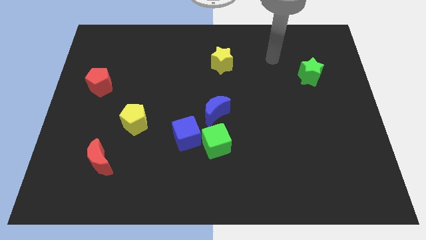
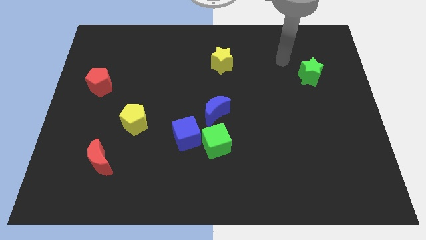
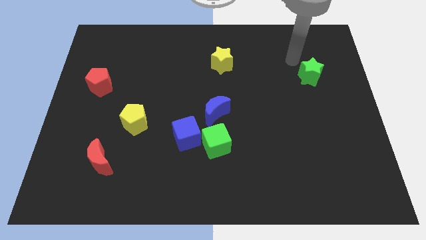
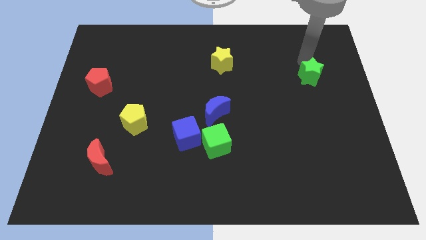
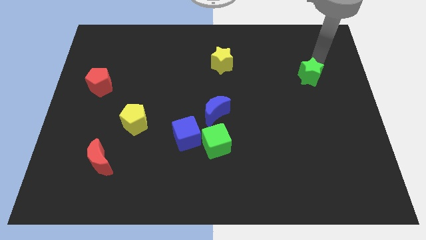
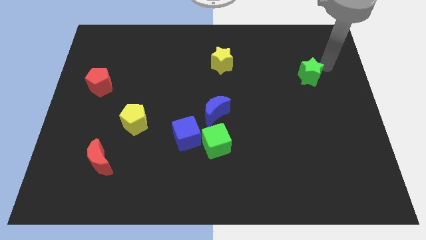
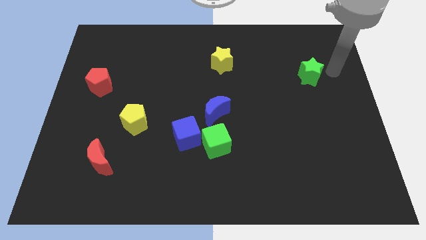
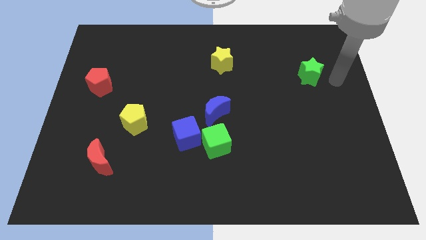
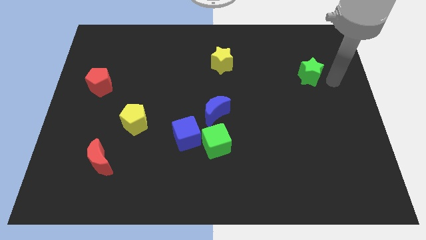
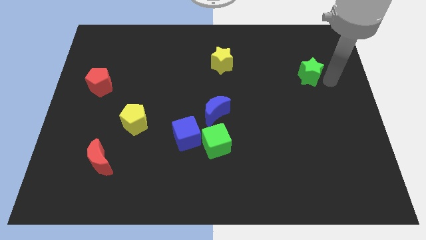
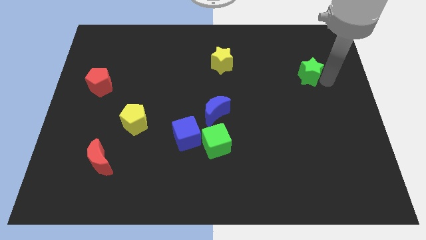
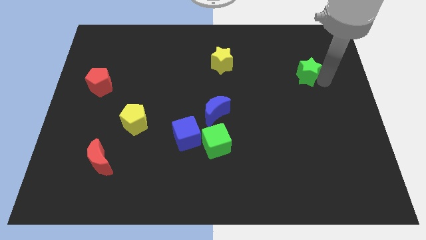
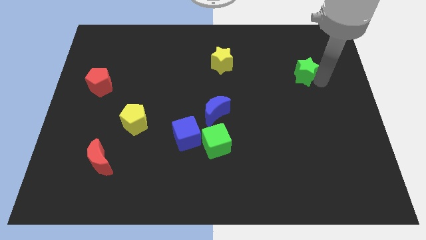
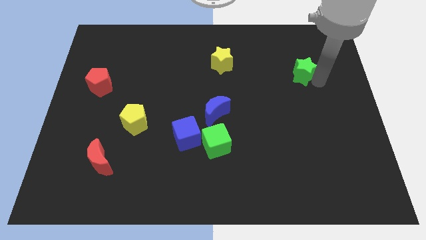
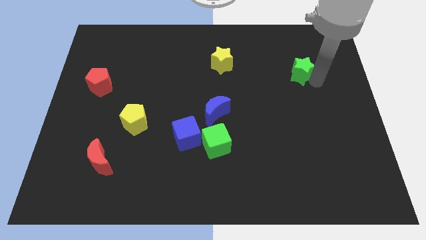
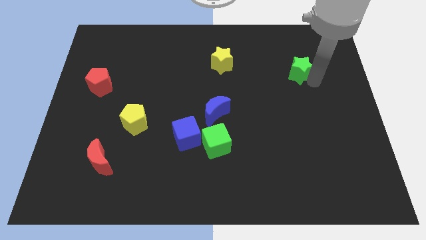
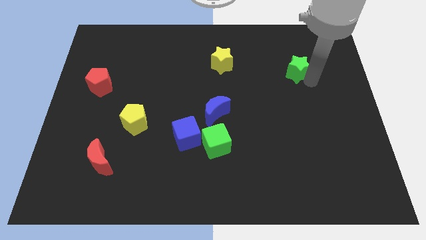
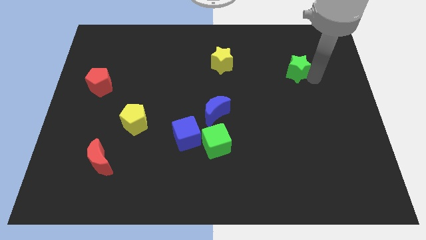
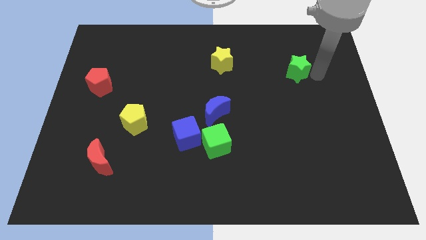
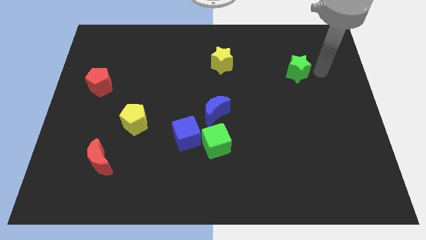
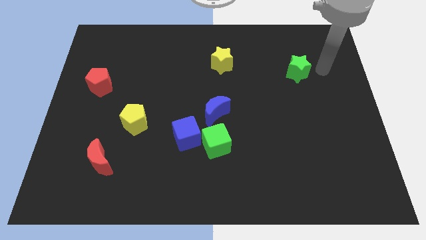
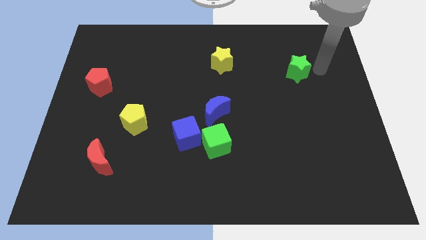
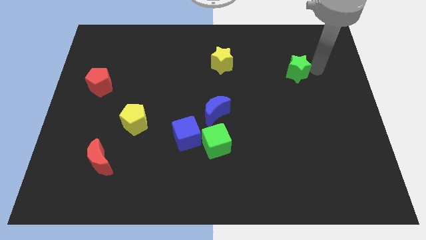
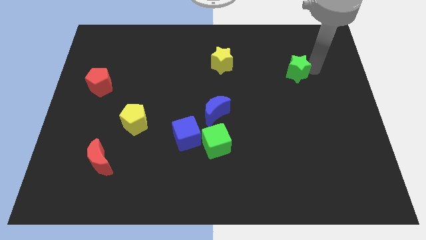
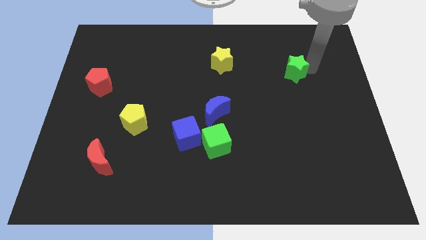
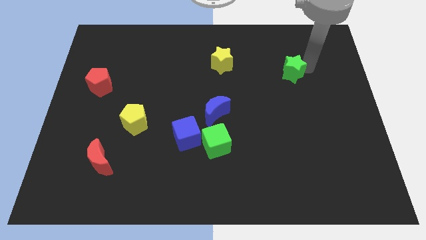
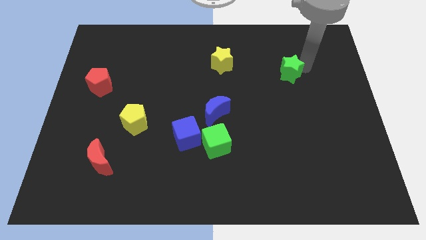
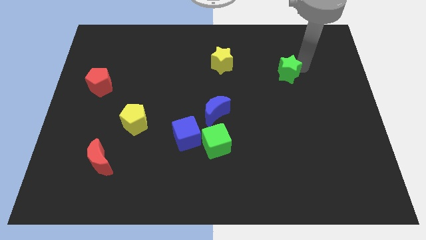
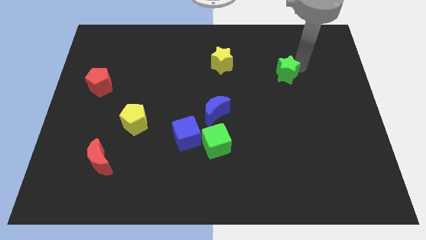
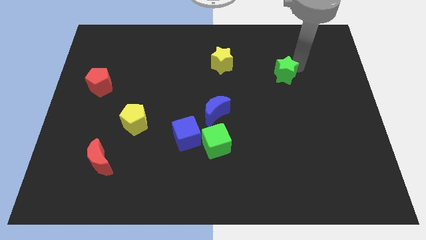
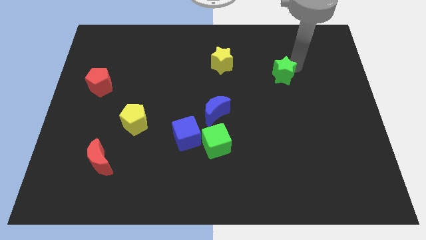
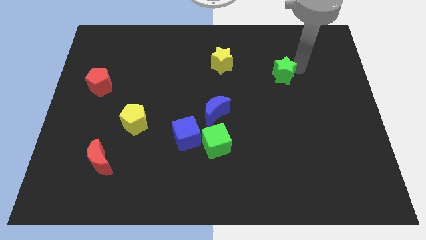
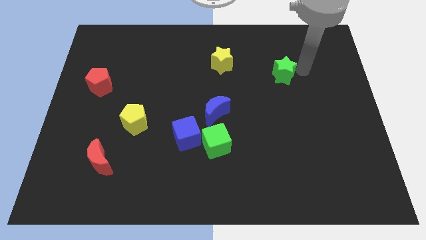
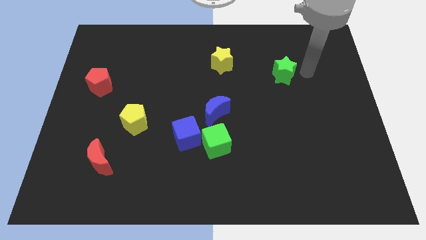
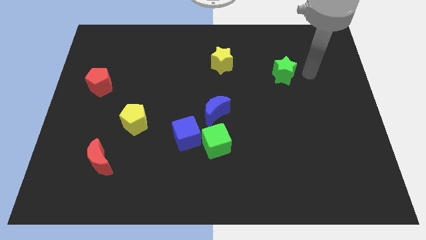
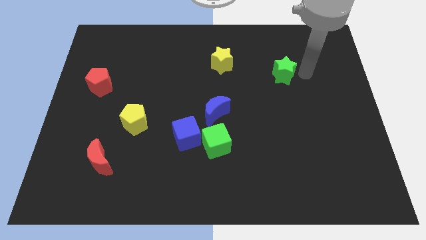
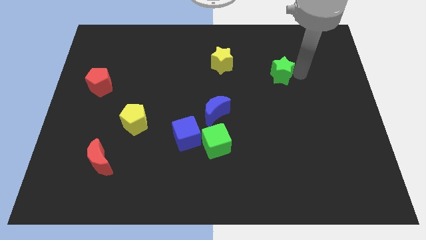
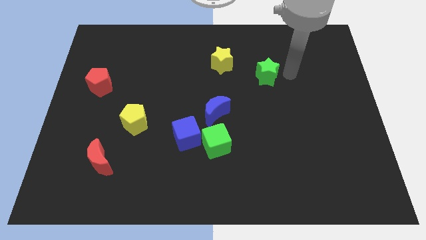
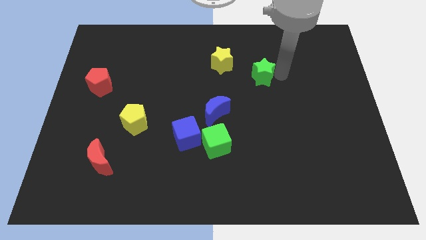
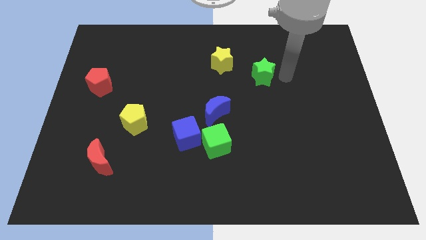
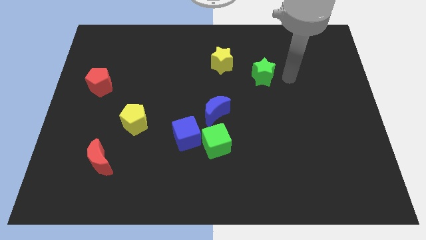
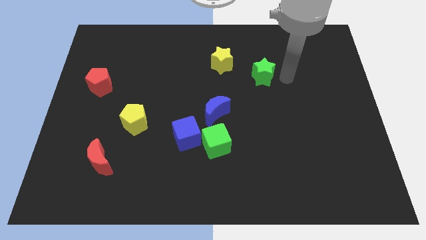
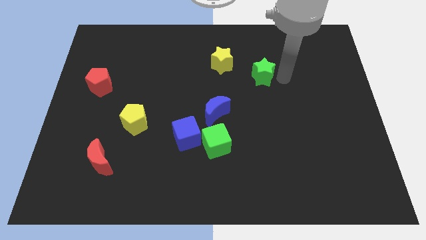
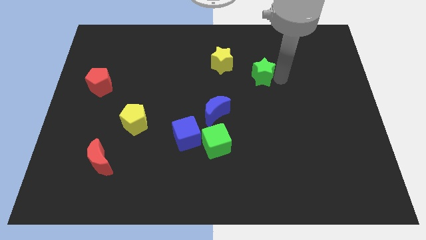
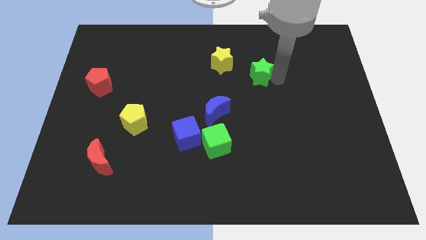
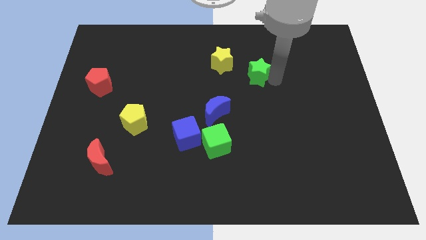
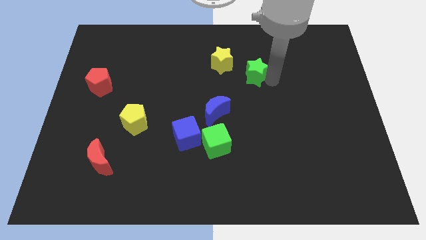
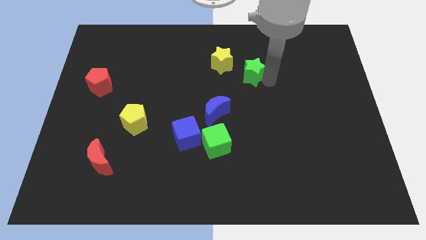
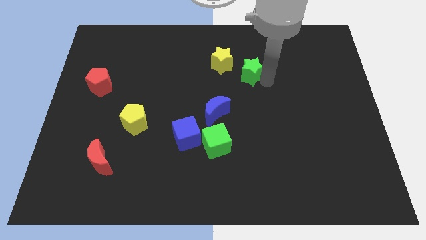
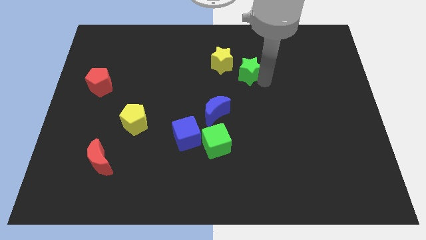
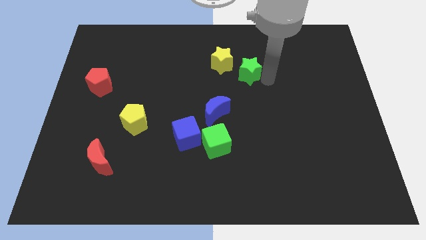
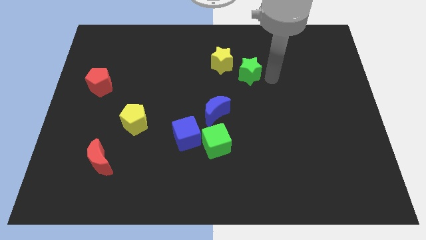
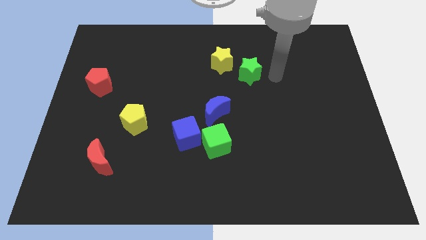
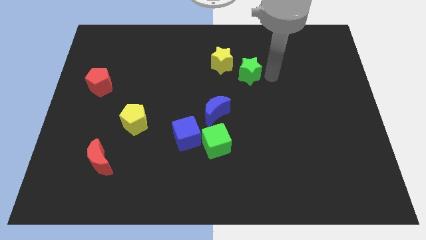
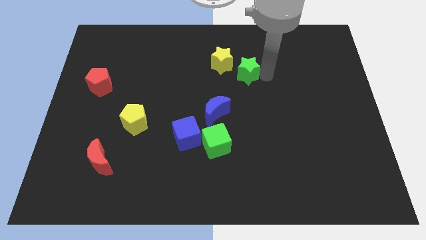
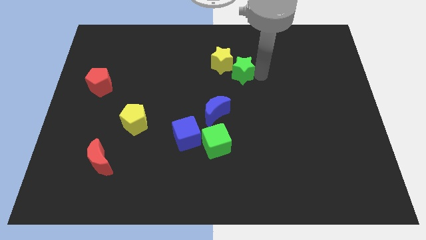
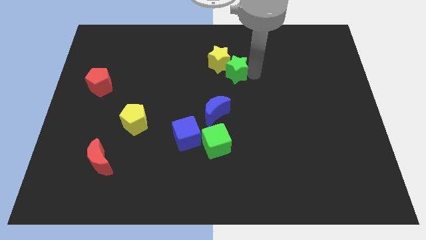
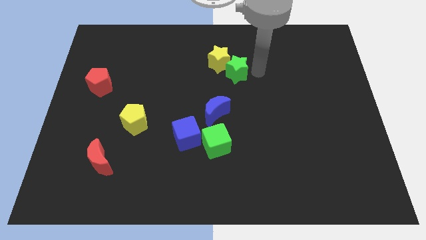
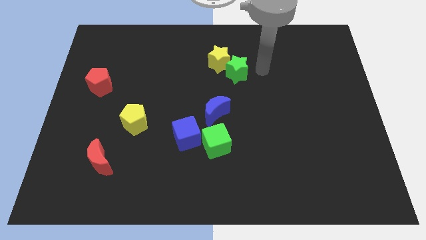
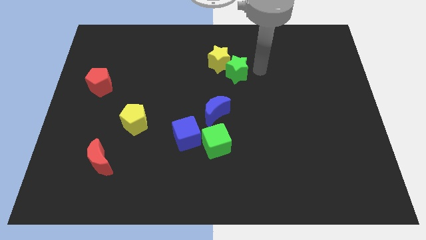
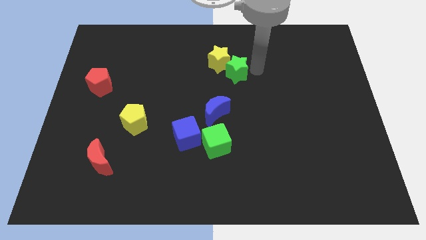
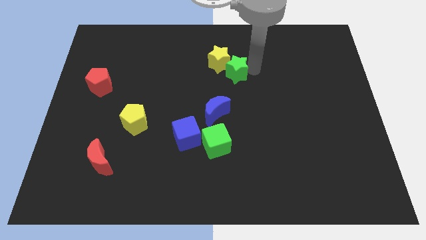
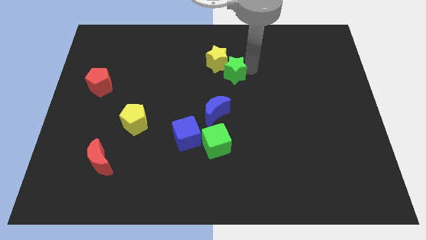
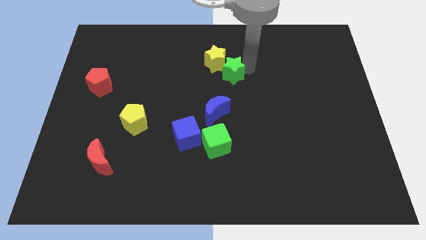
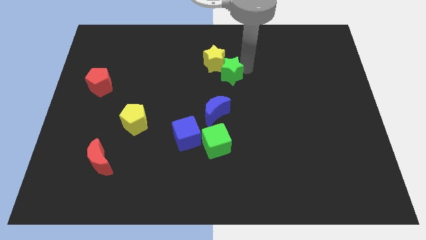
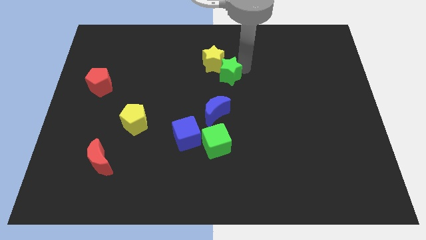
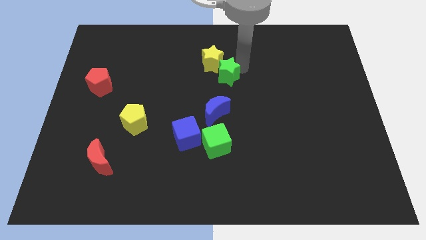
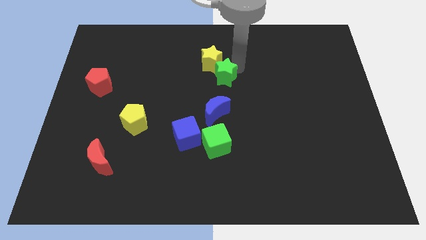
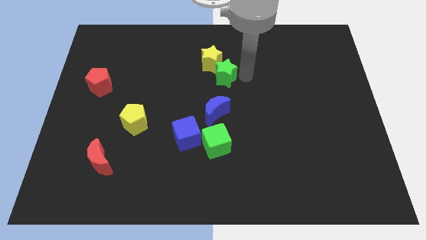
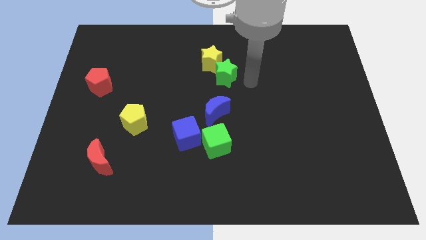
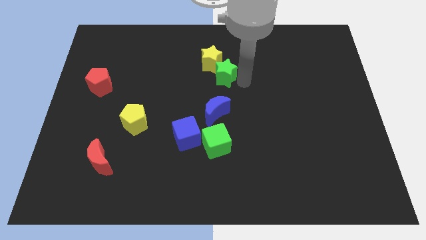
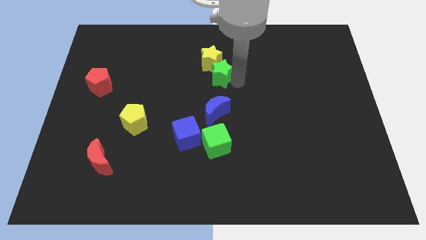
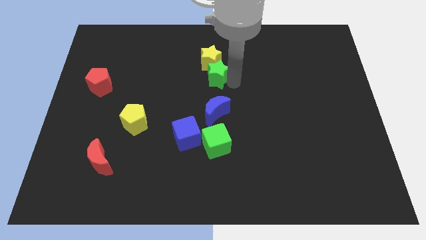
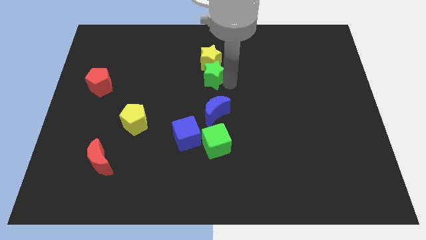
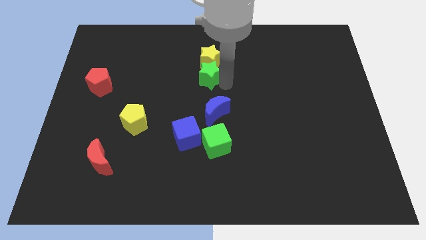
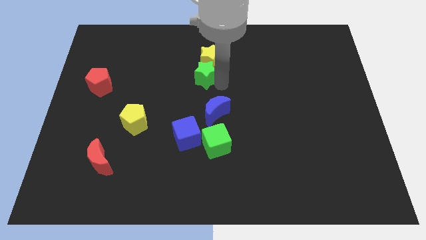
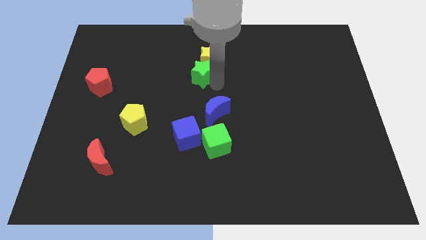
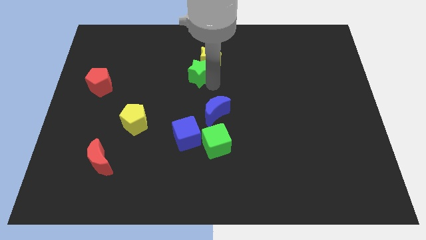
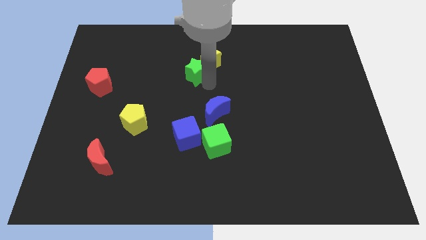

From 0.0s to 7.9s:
slide the green star to the left of the yellow star
